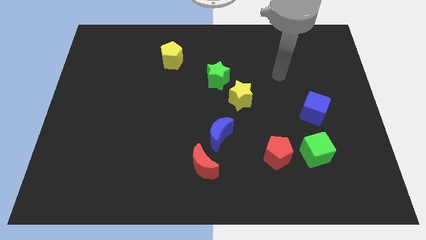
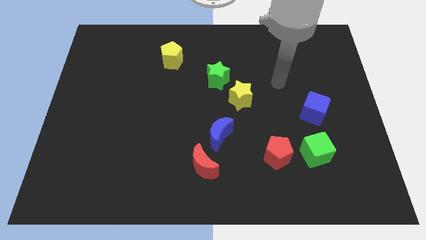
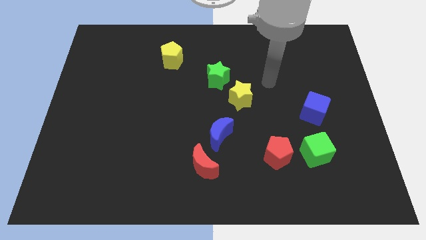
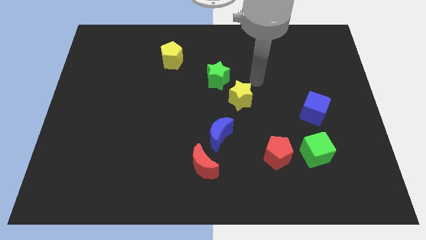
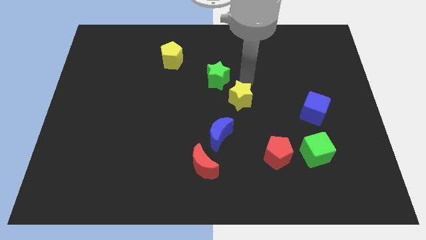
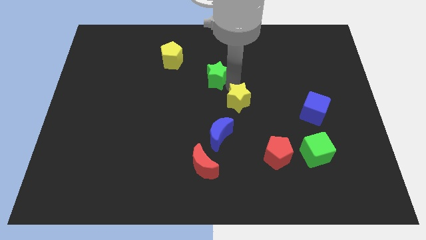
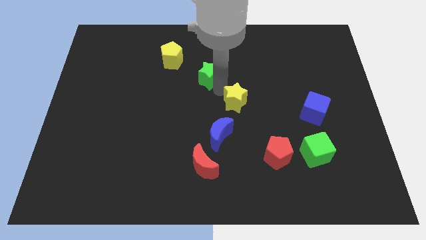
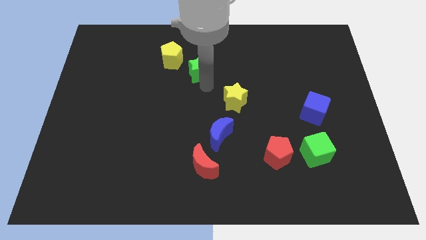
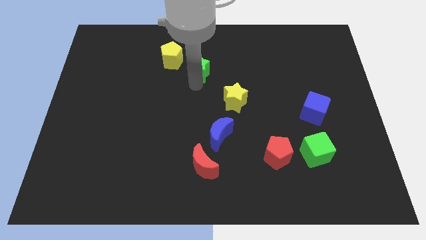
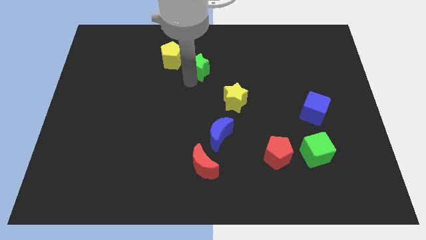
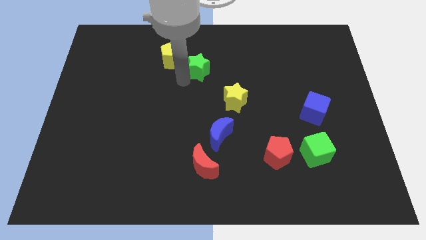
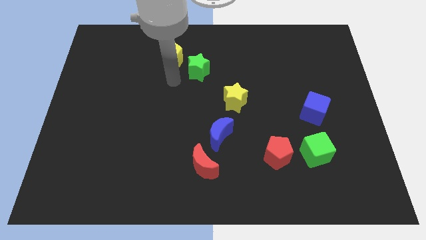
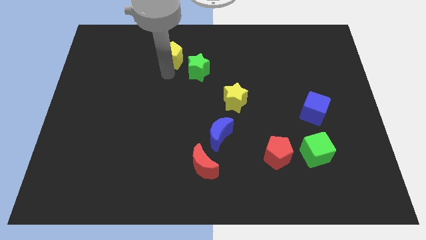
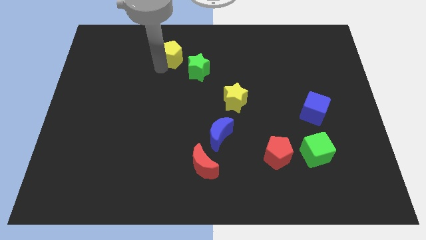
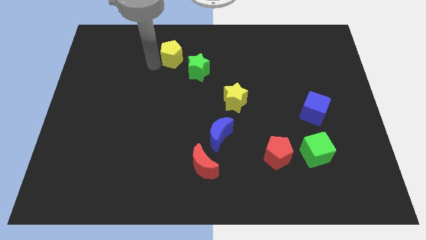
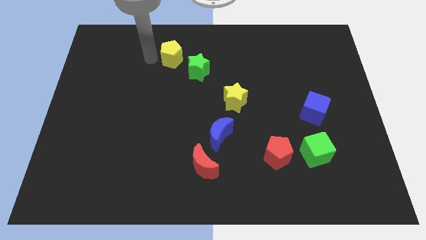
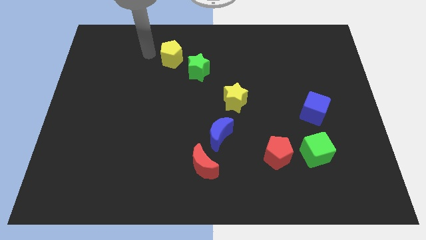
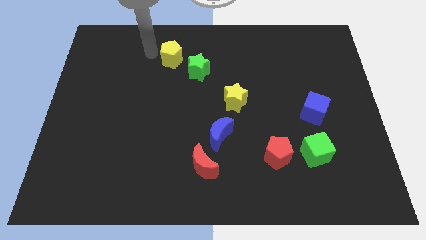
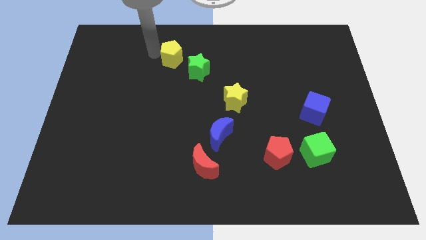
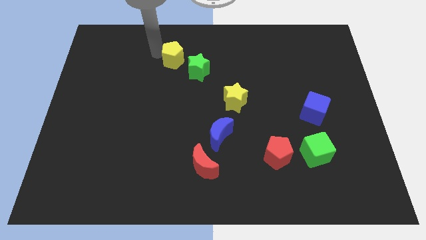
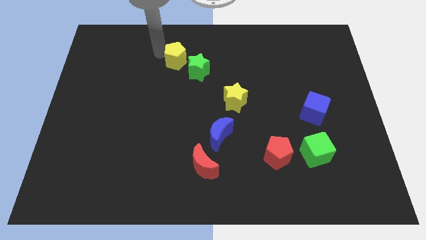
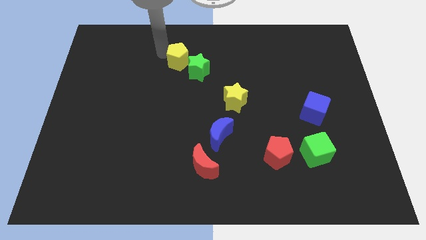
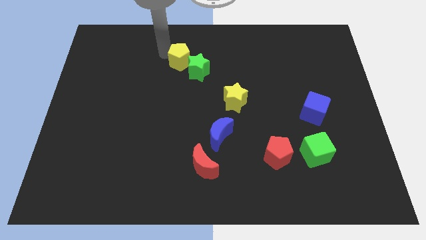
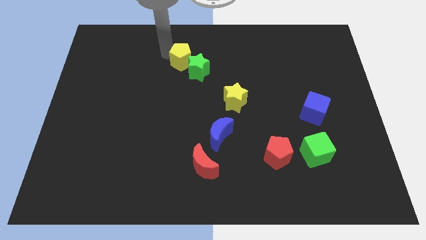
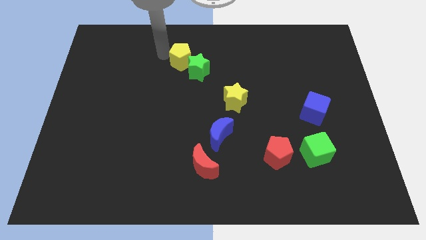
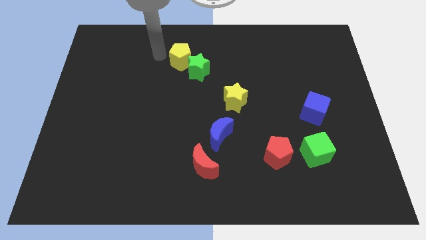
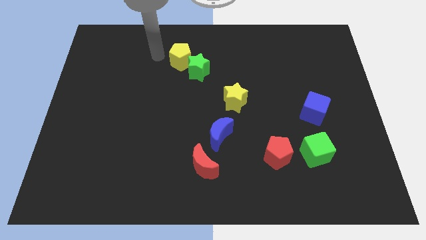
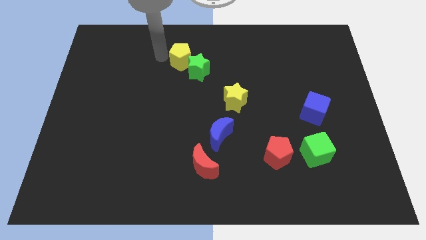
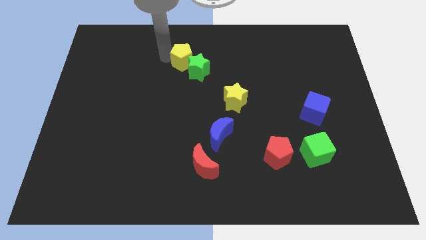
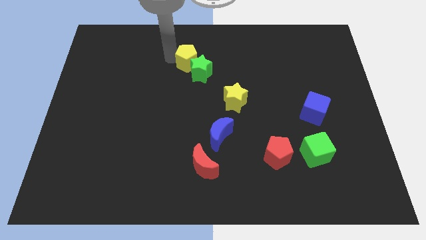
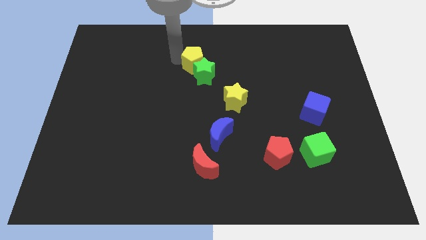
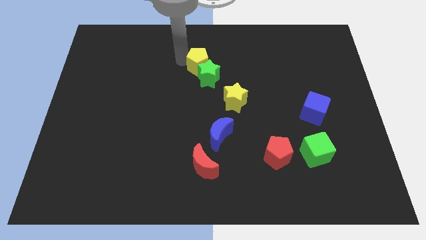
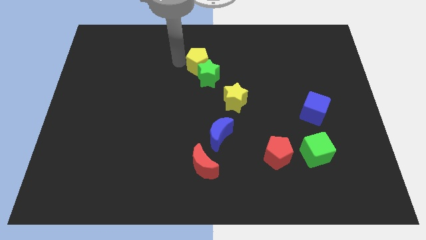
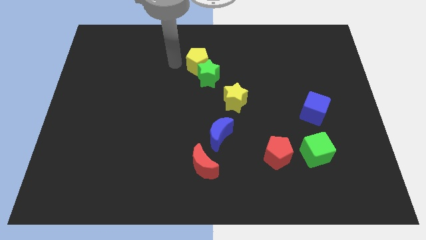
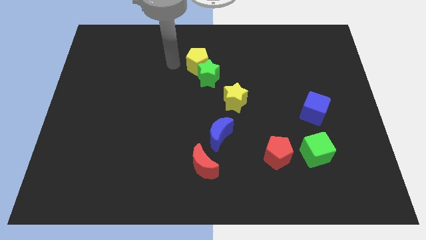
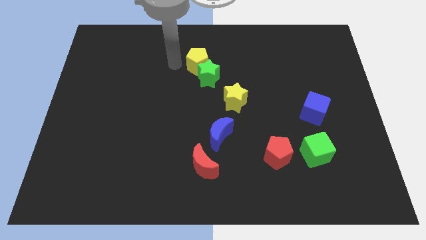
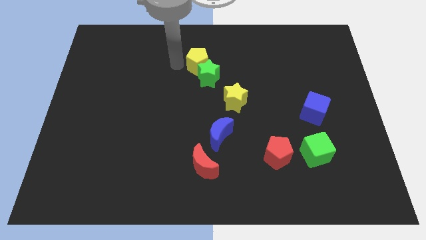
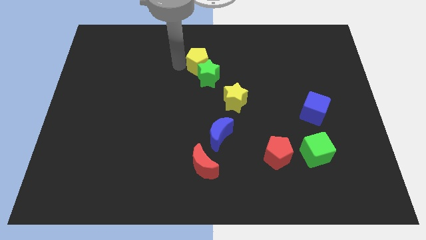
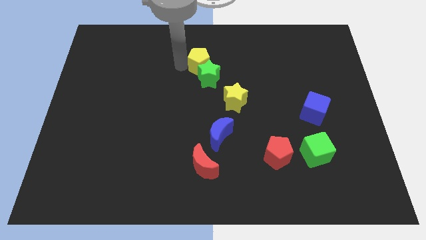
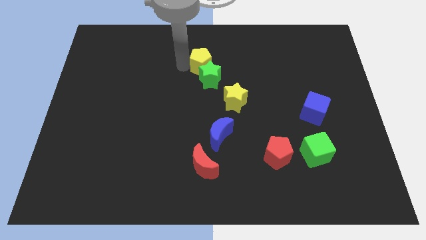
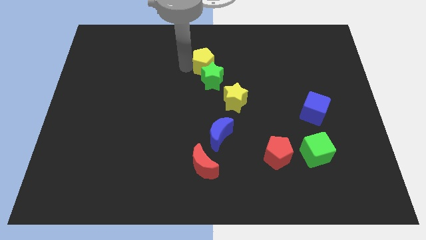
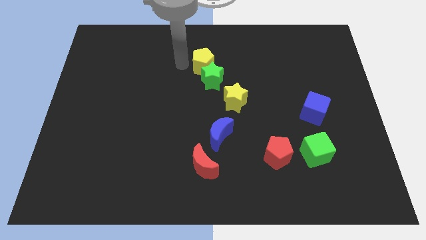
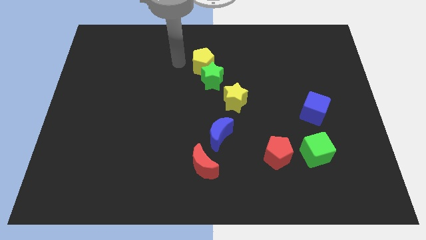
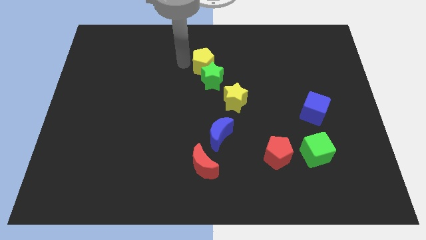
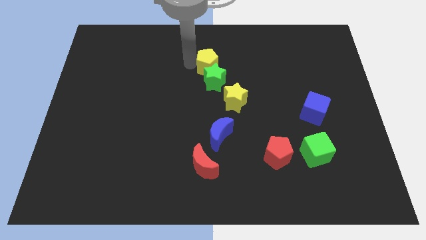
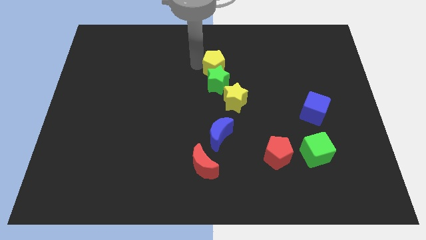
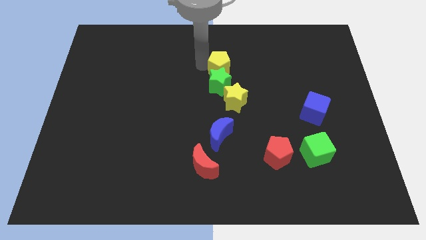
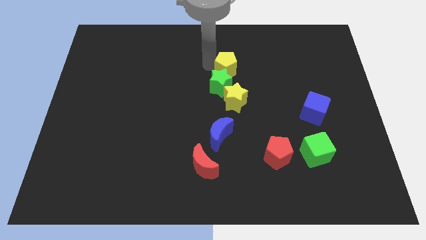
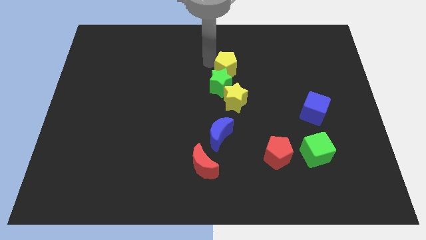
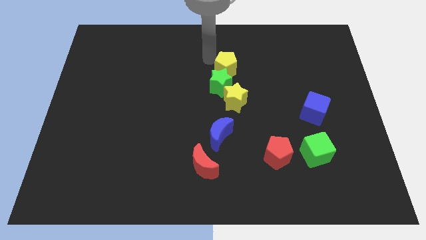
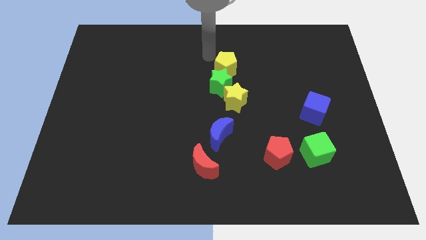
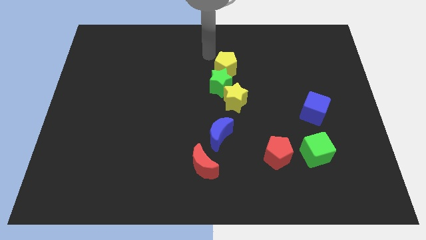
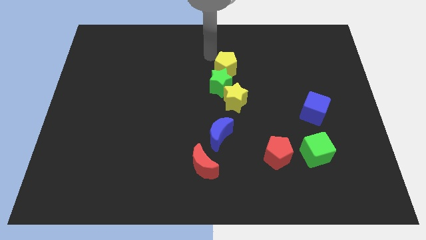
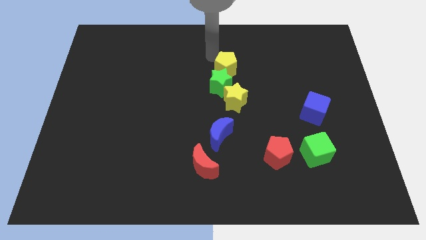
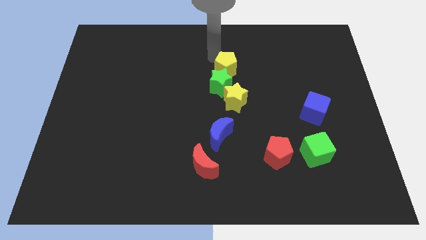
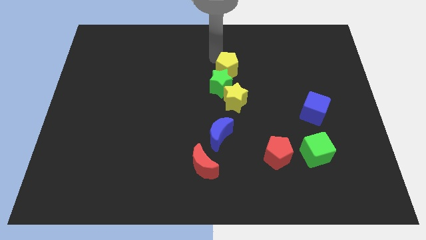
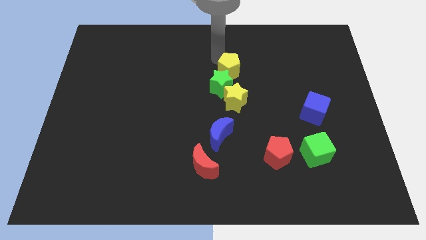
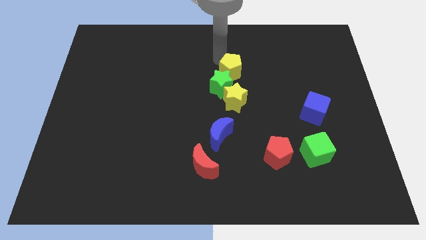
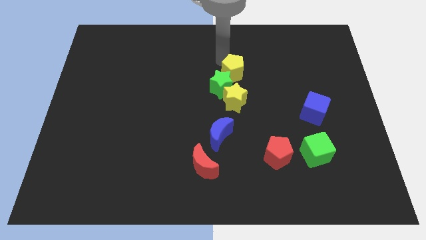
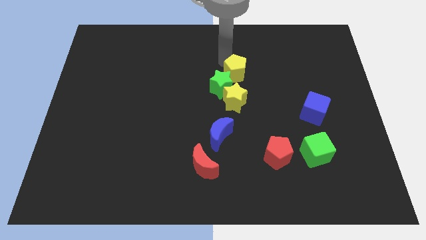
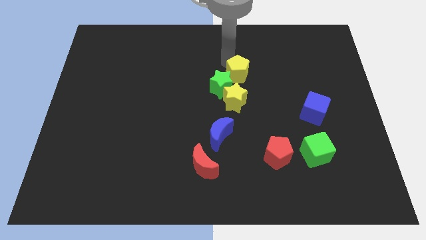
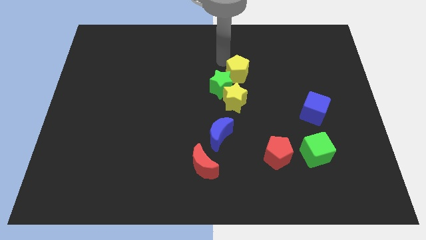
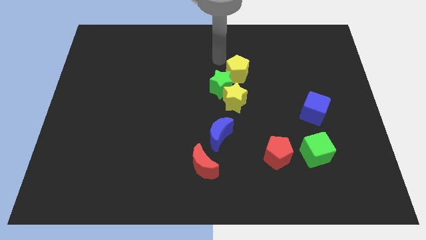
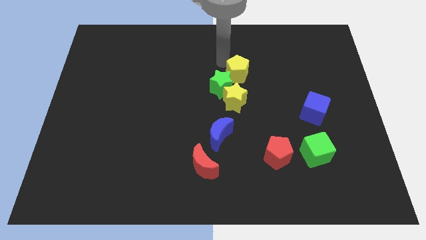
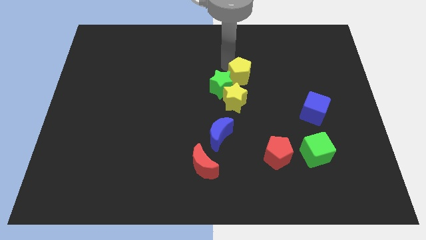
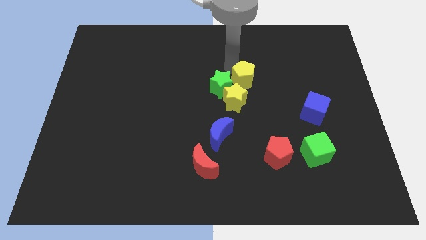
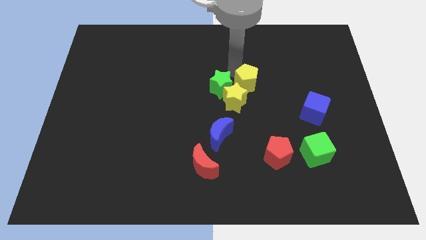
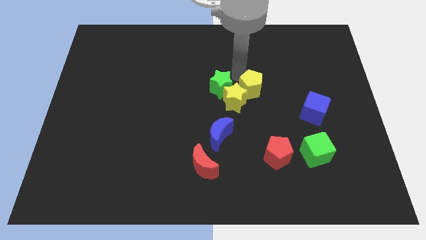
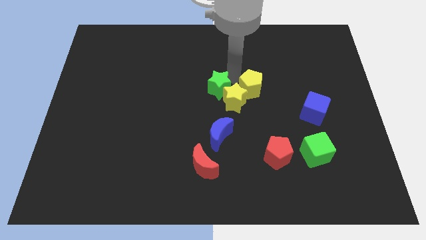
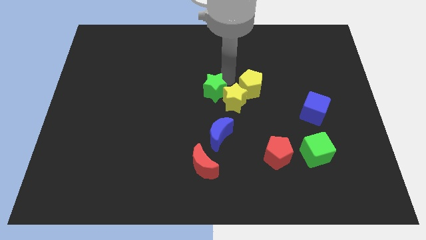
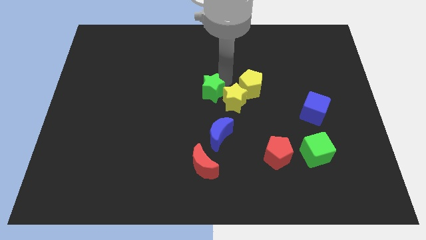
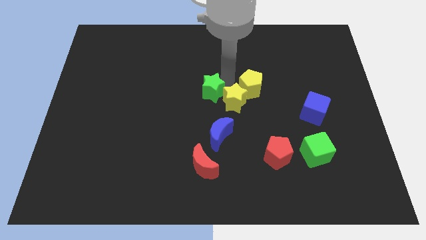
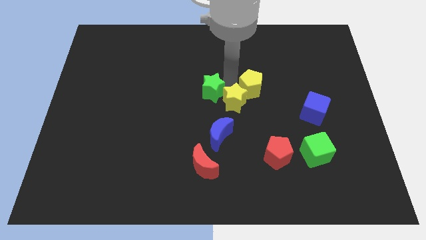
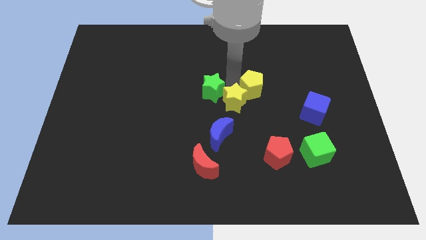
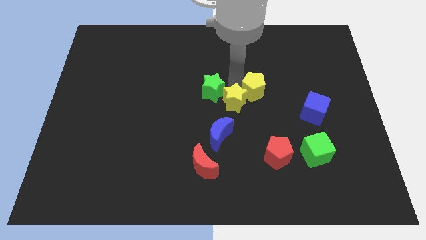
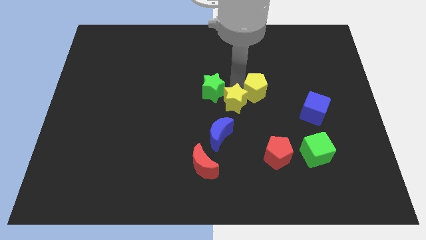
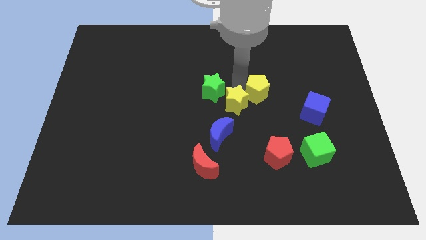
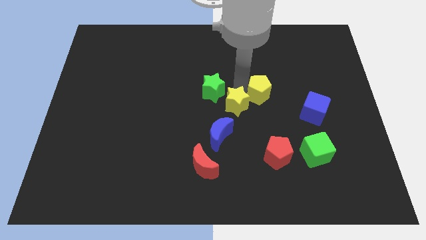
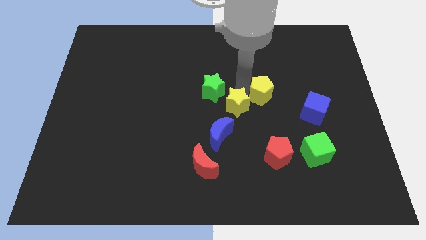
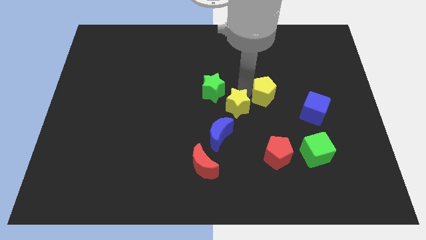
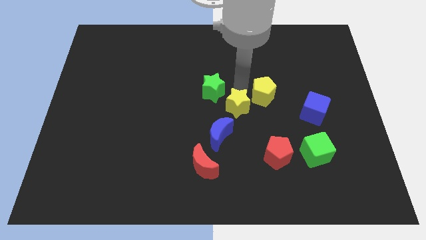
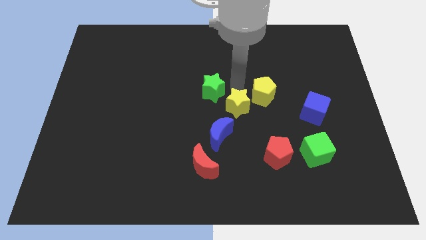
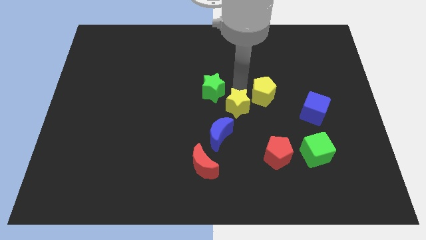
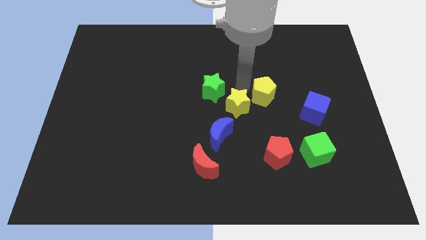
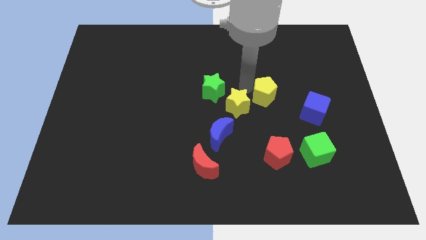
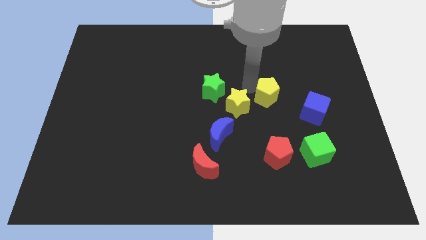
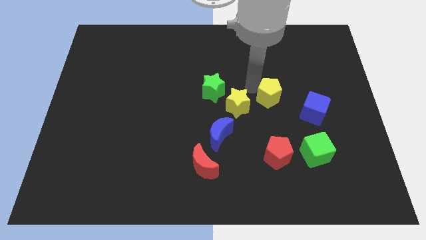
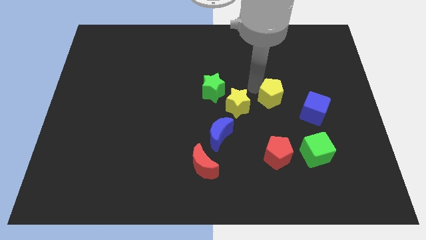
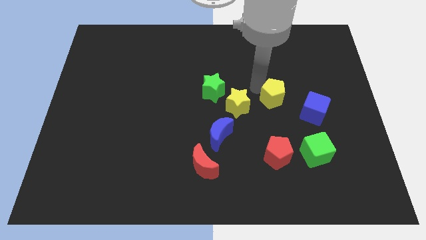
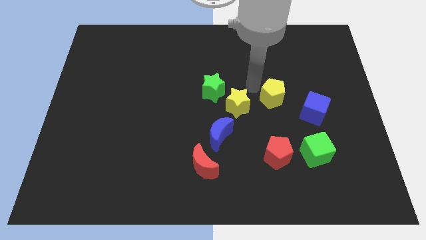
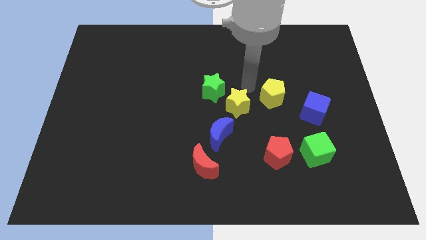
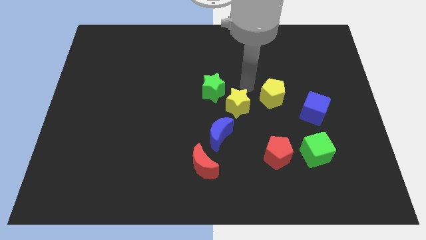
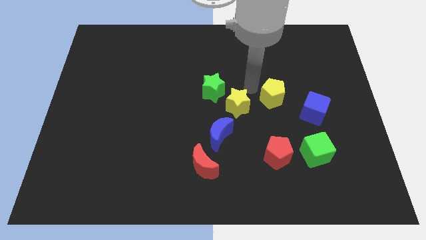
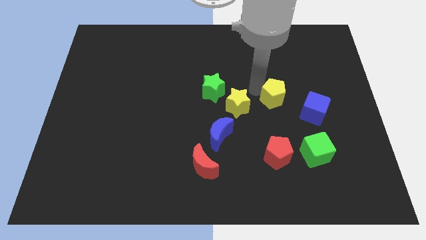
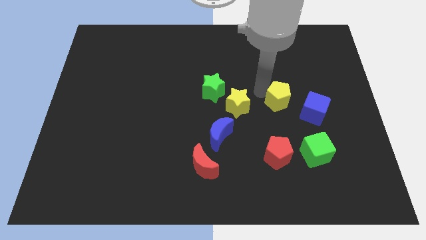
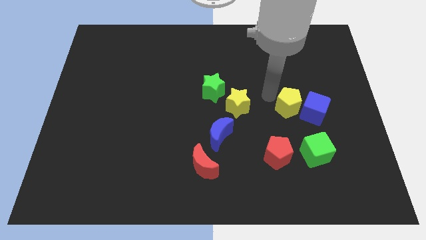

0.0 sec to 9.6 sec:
slide the yellow pentagon to the blue cube
